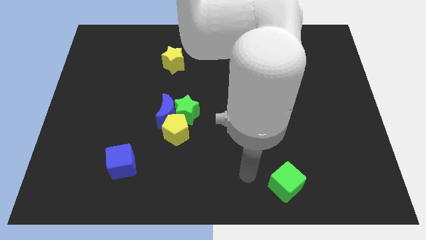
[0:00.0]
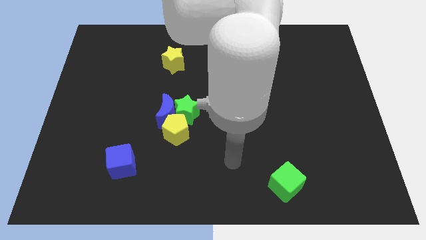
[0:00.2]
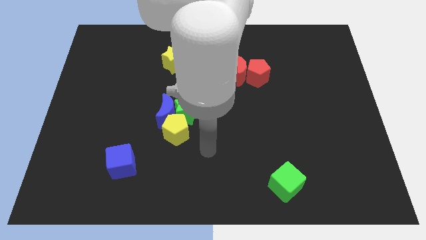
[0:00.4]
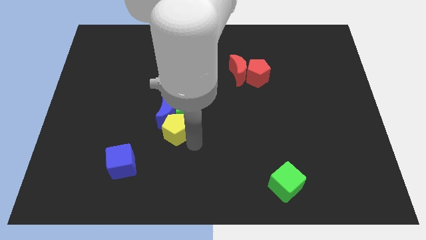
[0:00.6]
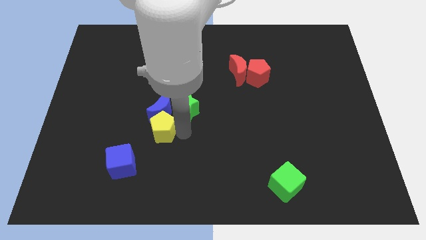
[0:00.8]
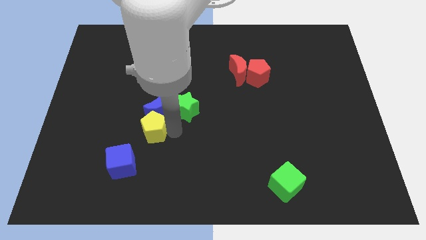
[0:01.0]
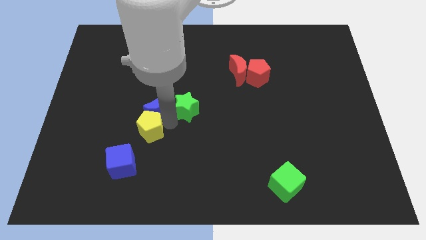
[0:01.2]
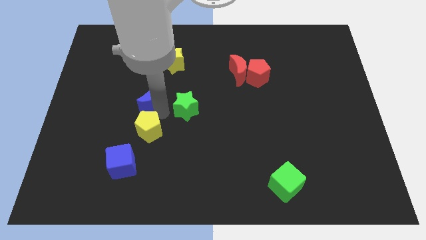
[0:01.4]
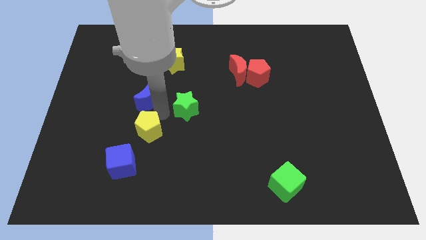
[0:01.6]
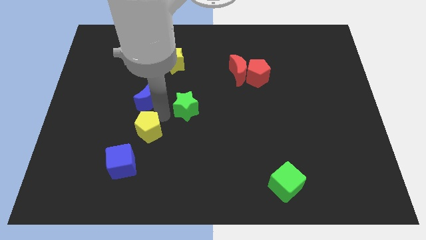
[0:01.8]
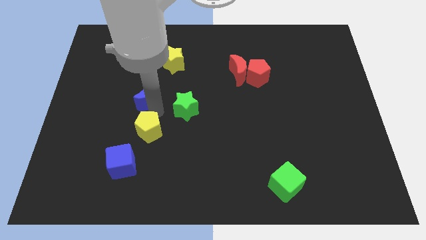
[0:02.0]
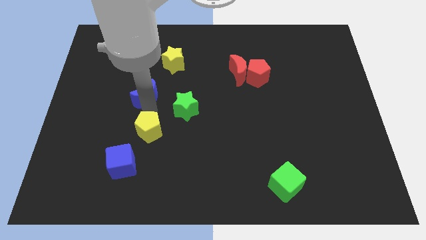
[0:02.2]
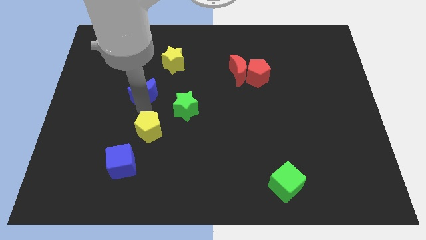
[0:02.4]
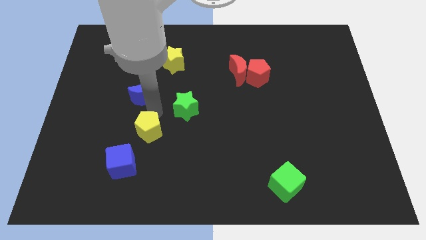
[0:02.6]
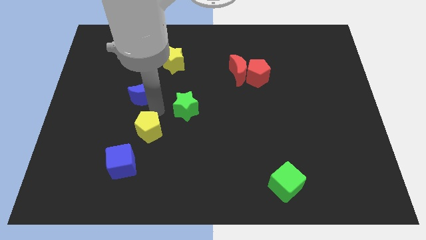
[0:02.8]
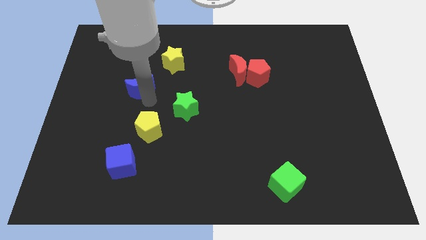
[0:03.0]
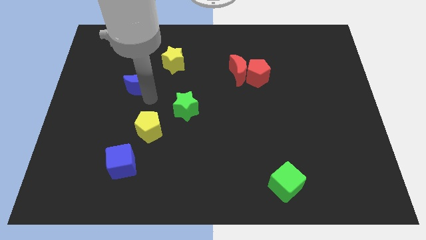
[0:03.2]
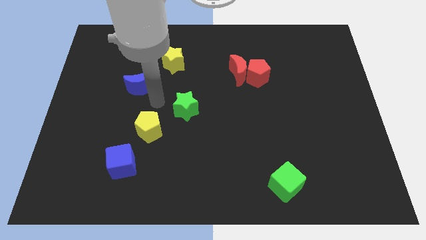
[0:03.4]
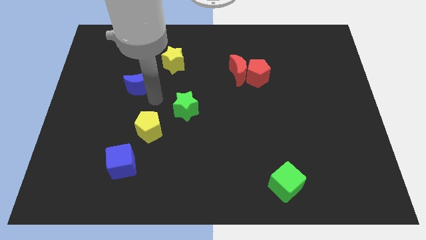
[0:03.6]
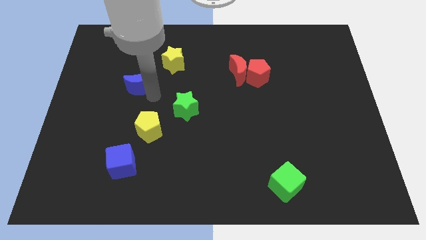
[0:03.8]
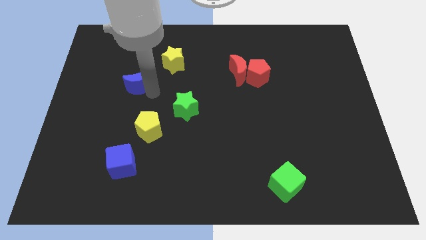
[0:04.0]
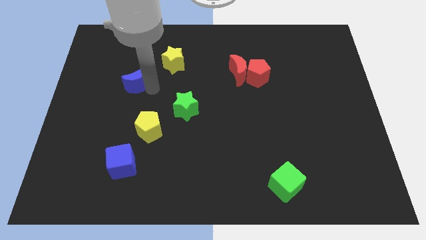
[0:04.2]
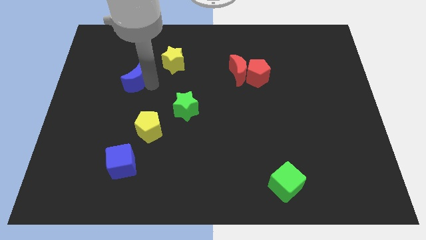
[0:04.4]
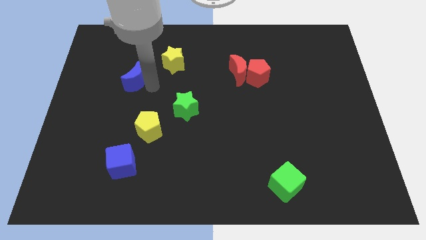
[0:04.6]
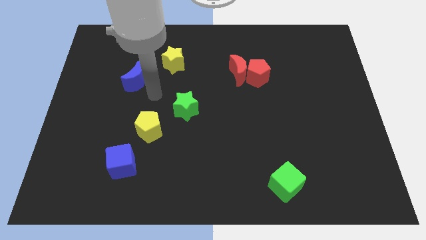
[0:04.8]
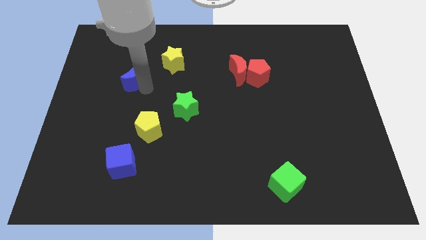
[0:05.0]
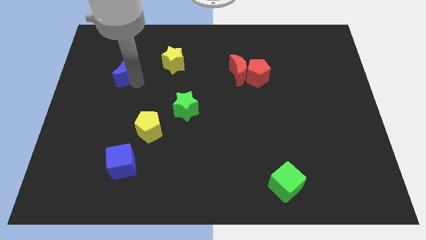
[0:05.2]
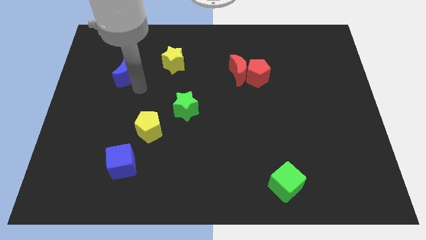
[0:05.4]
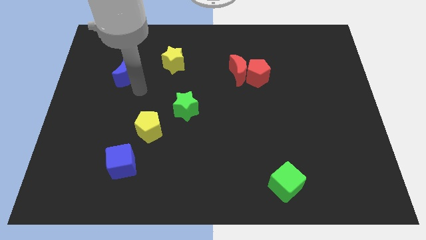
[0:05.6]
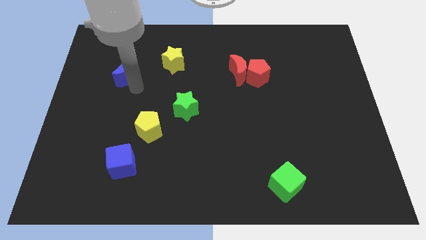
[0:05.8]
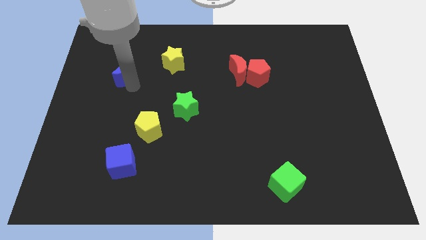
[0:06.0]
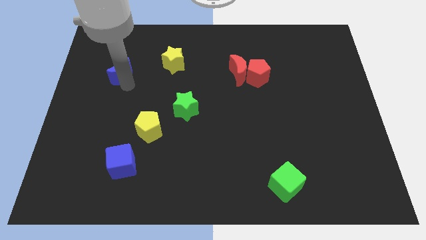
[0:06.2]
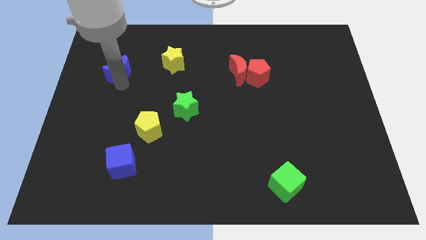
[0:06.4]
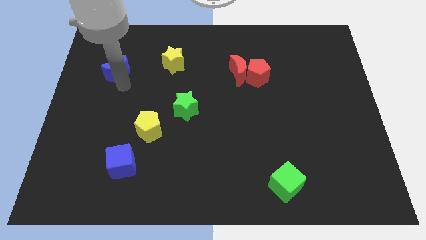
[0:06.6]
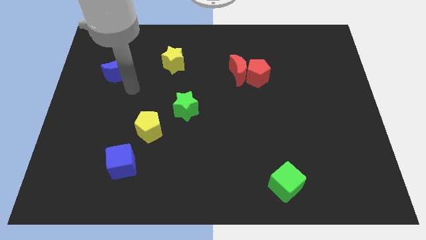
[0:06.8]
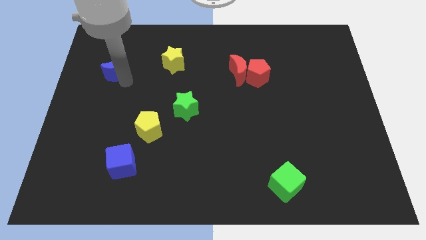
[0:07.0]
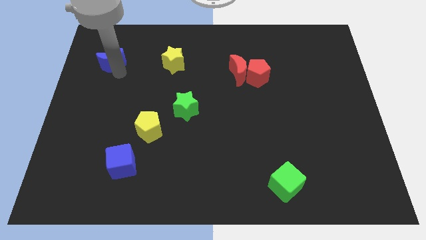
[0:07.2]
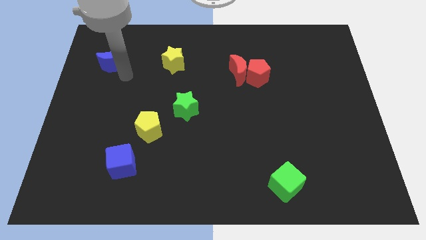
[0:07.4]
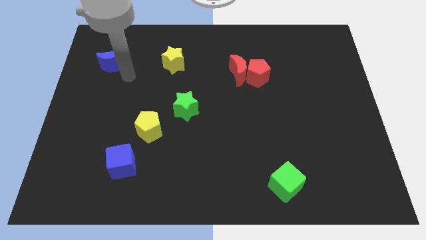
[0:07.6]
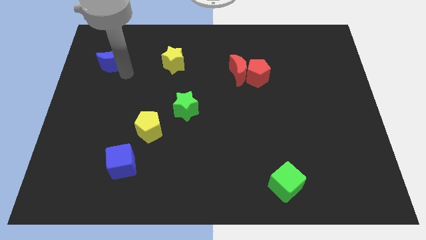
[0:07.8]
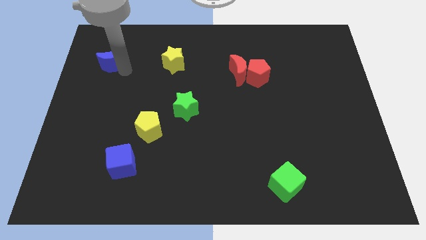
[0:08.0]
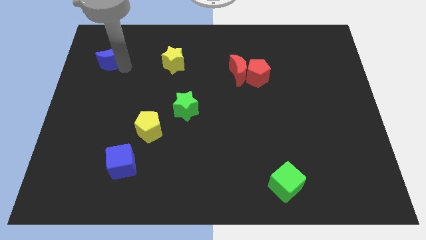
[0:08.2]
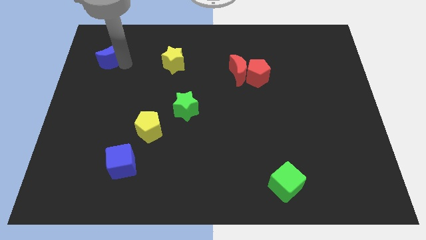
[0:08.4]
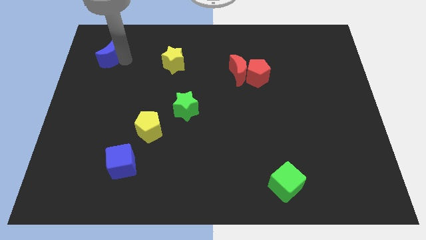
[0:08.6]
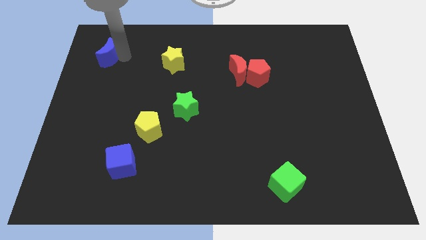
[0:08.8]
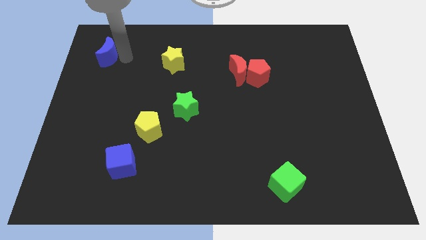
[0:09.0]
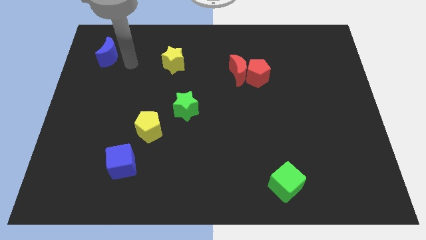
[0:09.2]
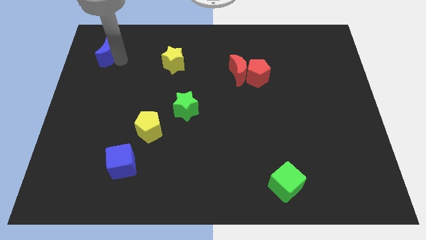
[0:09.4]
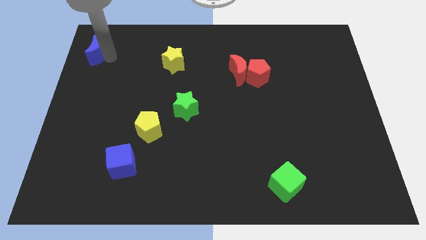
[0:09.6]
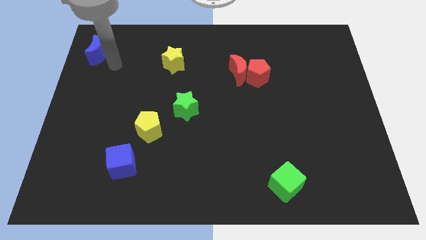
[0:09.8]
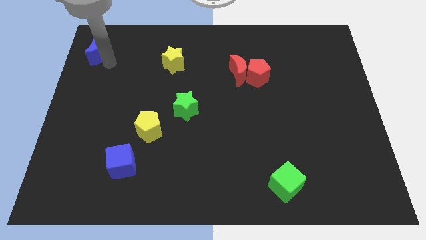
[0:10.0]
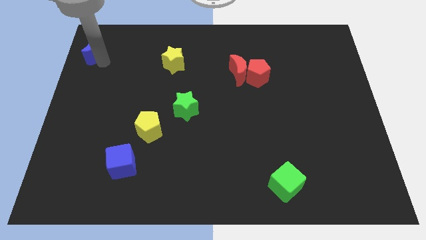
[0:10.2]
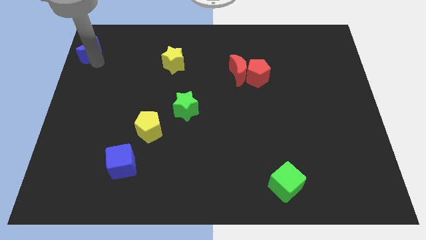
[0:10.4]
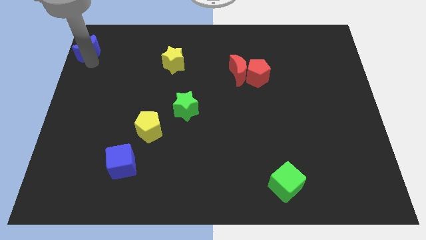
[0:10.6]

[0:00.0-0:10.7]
push the blue moon to the top left of the board

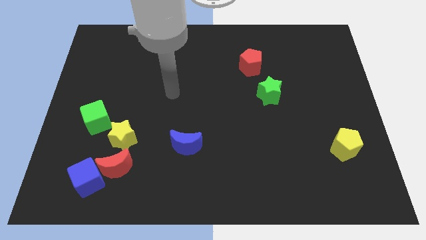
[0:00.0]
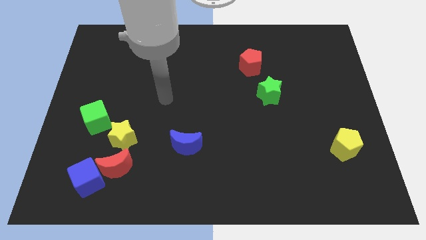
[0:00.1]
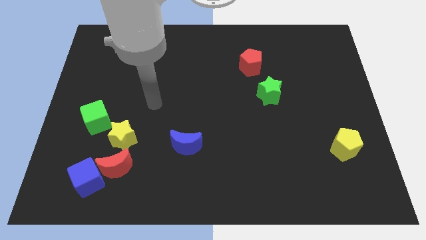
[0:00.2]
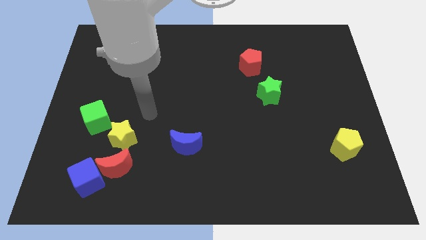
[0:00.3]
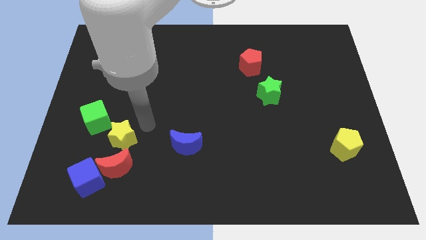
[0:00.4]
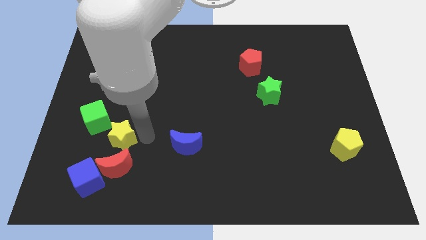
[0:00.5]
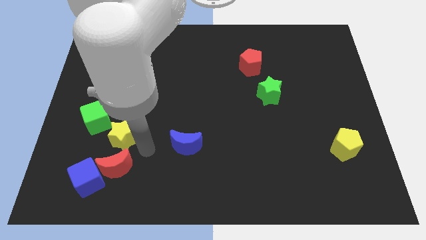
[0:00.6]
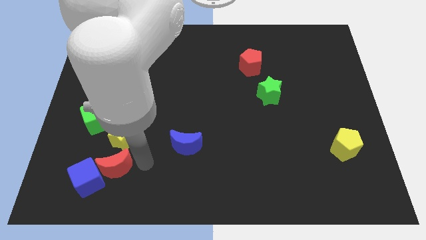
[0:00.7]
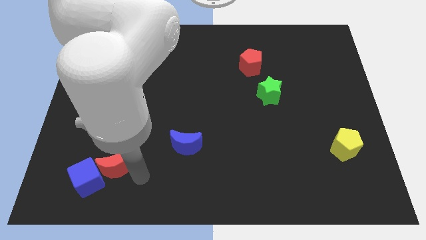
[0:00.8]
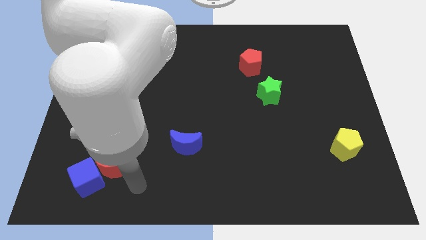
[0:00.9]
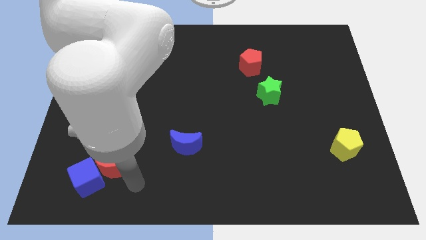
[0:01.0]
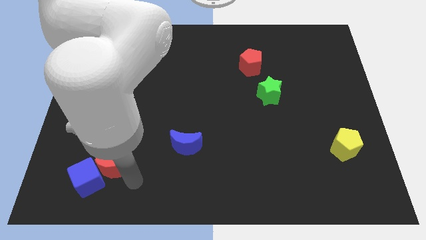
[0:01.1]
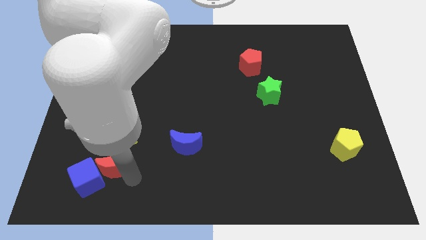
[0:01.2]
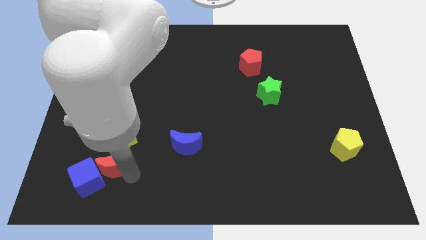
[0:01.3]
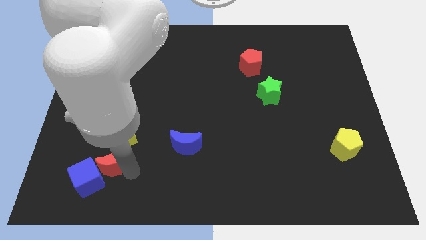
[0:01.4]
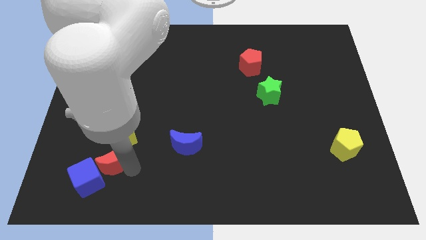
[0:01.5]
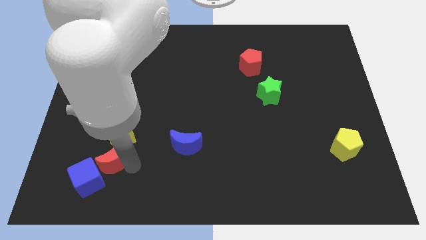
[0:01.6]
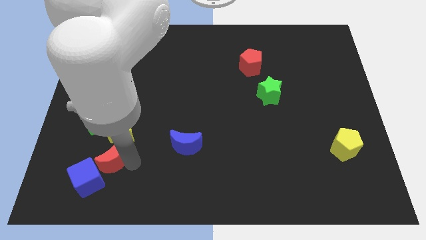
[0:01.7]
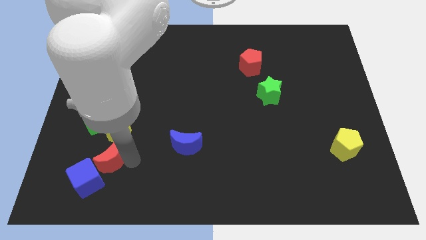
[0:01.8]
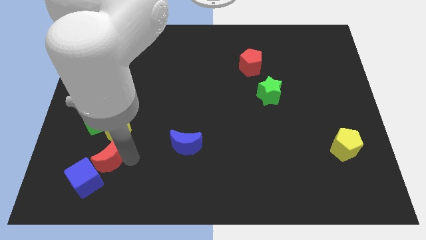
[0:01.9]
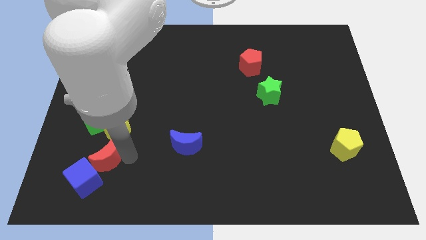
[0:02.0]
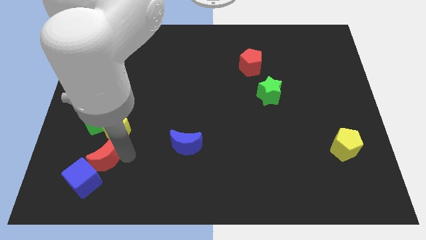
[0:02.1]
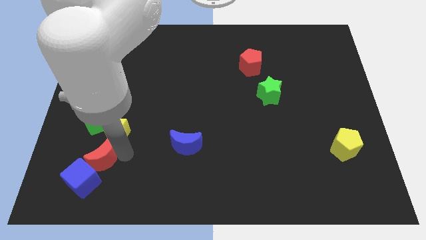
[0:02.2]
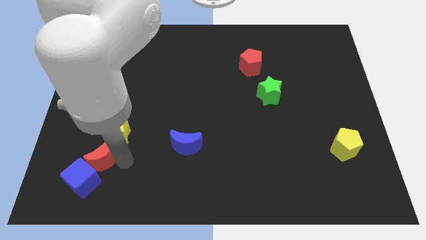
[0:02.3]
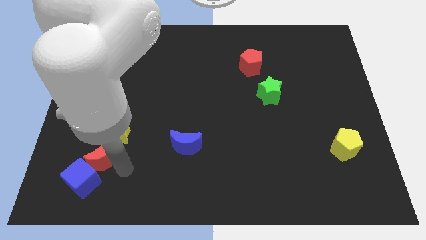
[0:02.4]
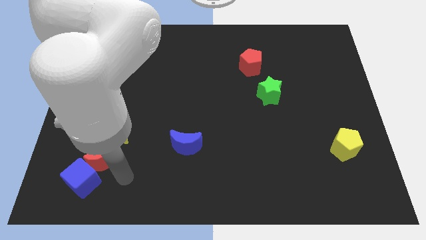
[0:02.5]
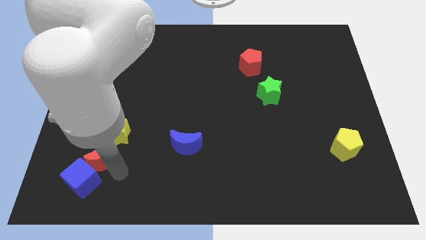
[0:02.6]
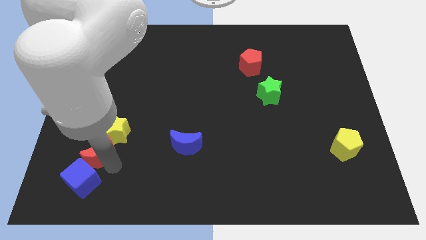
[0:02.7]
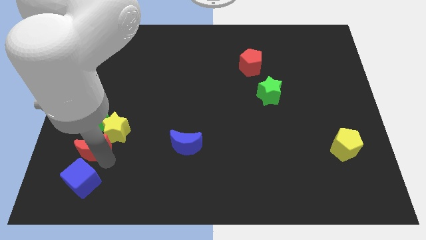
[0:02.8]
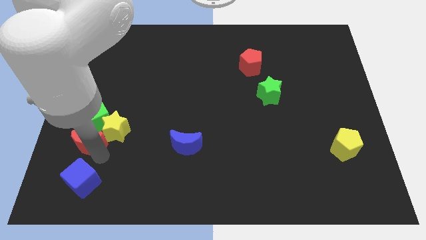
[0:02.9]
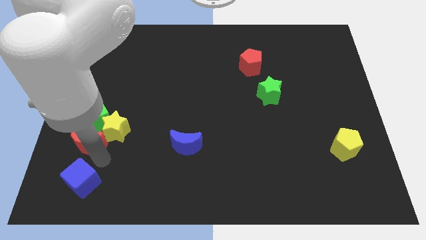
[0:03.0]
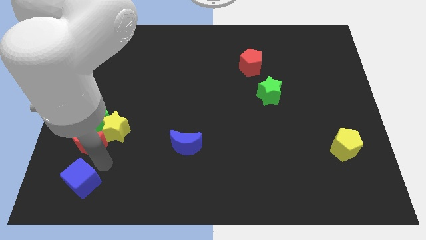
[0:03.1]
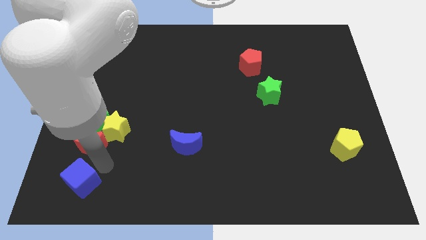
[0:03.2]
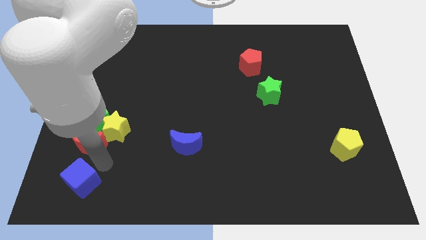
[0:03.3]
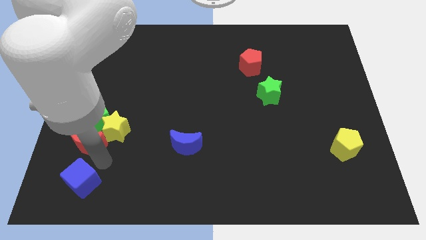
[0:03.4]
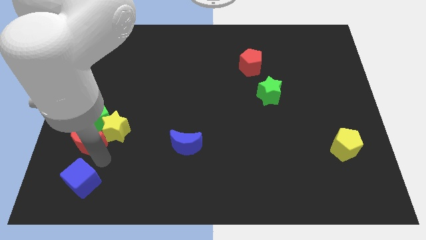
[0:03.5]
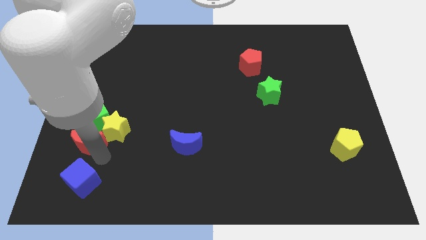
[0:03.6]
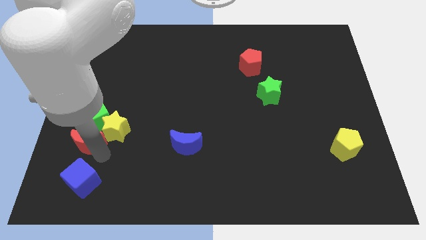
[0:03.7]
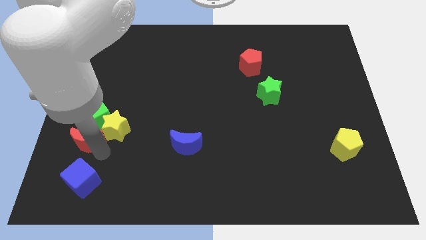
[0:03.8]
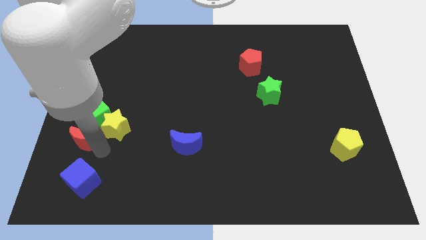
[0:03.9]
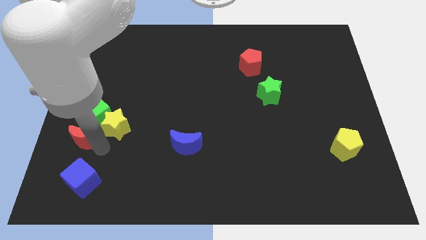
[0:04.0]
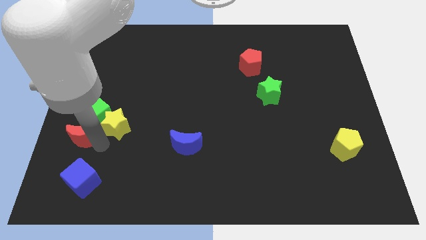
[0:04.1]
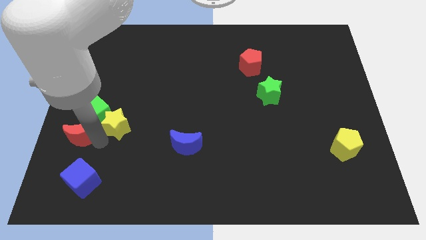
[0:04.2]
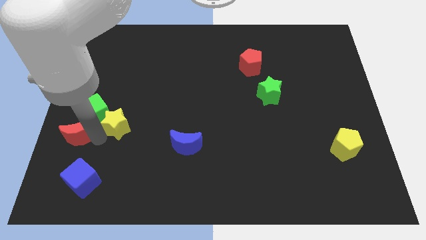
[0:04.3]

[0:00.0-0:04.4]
put the red moon to the left side of the board
